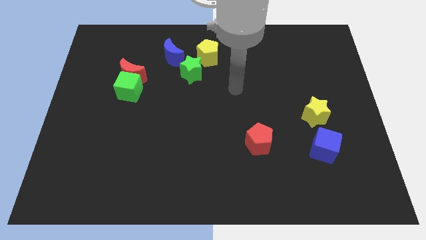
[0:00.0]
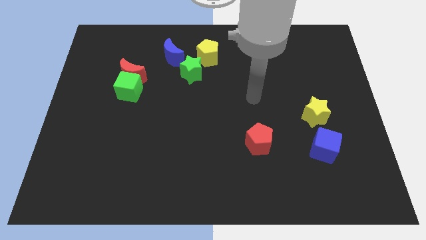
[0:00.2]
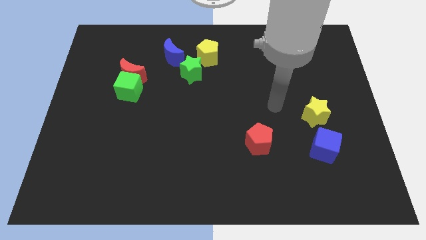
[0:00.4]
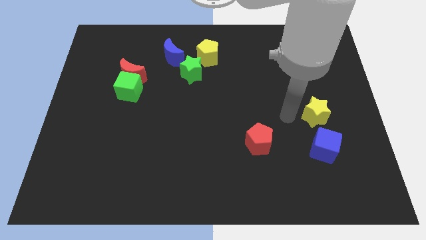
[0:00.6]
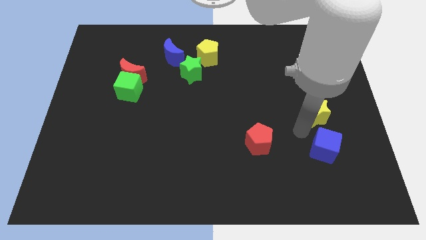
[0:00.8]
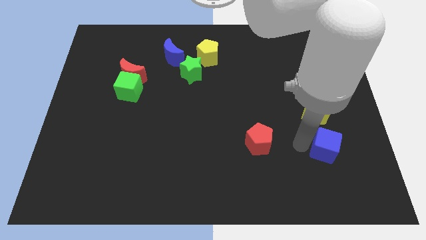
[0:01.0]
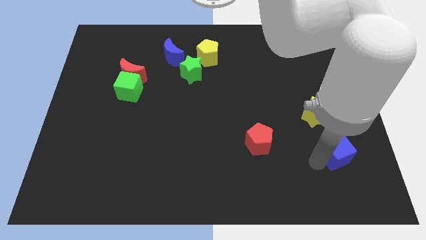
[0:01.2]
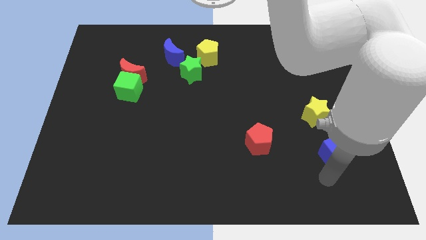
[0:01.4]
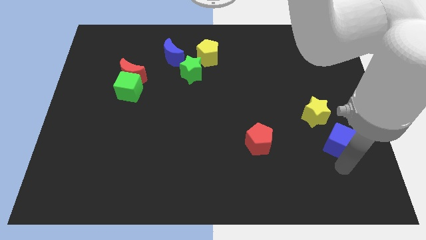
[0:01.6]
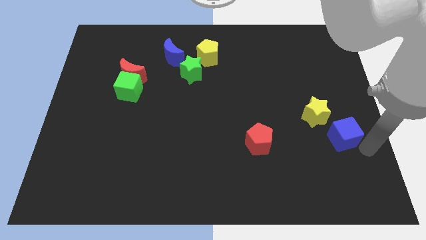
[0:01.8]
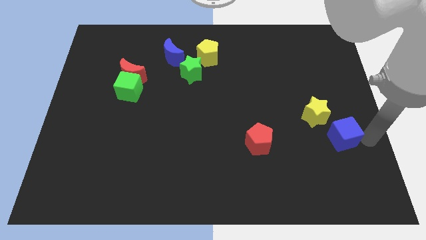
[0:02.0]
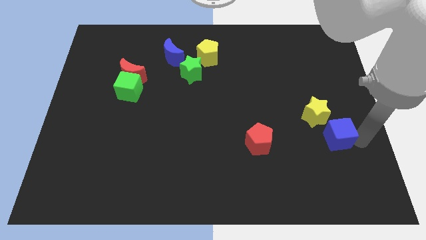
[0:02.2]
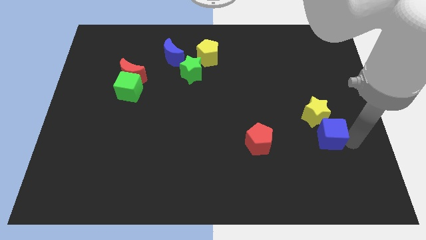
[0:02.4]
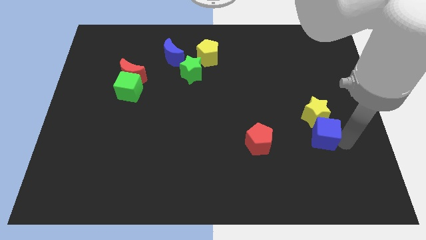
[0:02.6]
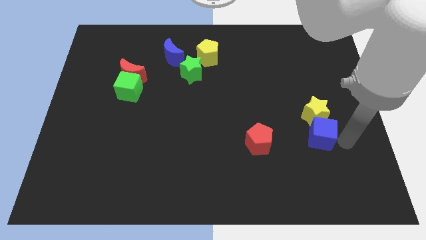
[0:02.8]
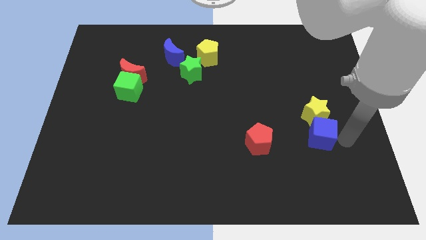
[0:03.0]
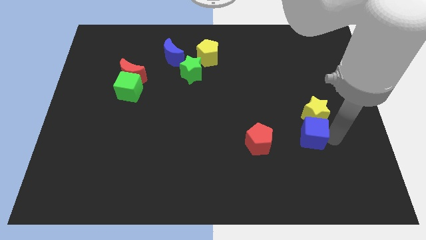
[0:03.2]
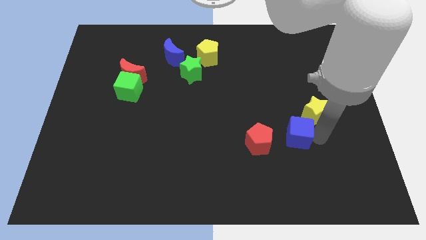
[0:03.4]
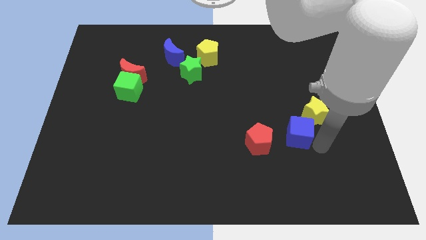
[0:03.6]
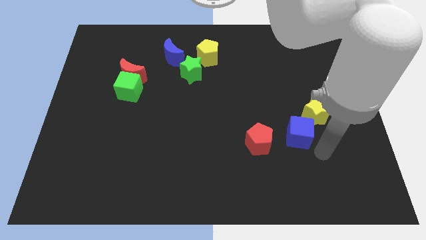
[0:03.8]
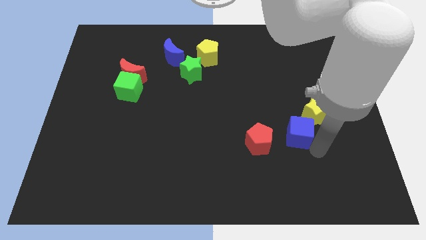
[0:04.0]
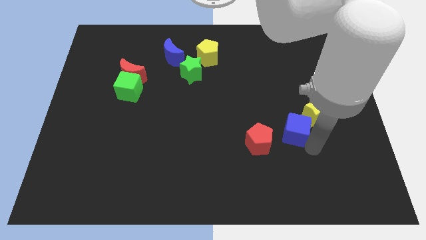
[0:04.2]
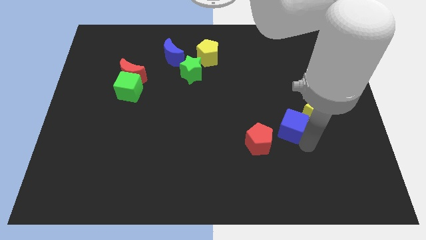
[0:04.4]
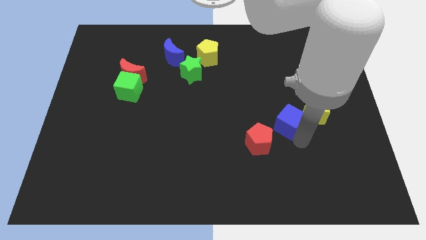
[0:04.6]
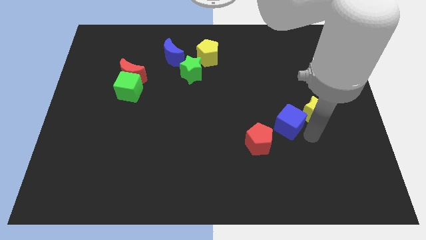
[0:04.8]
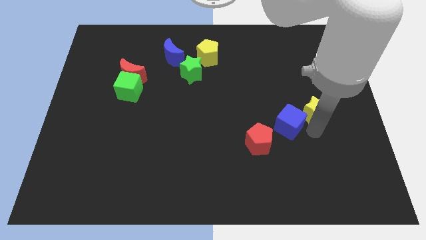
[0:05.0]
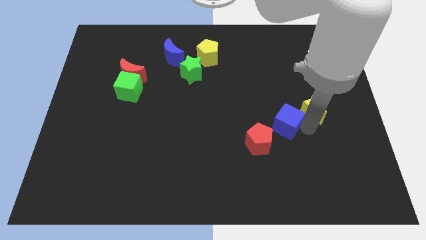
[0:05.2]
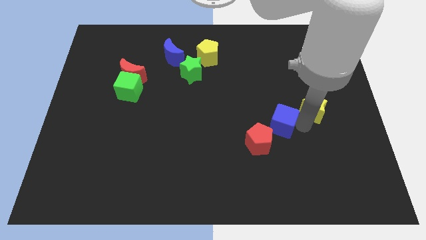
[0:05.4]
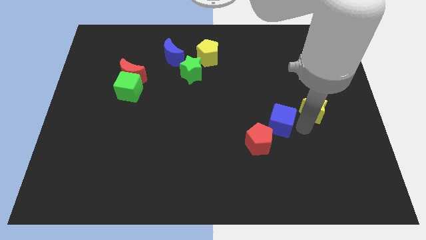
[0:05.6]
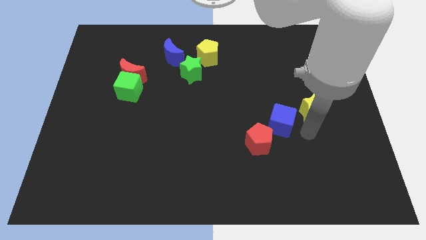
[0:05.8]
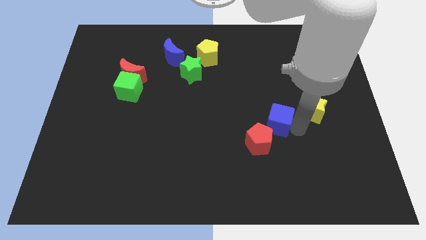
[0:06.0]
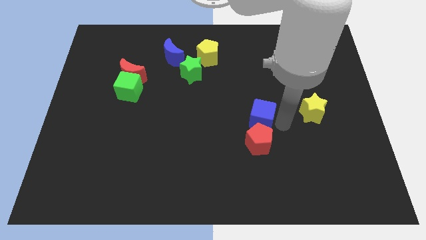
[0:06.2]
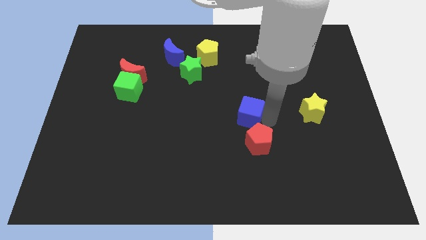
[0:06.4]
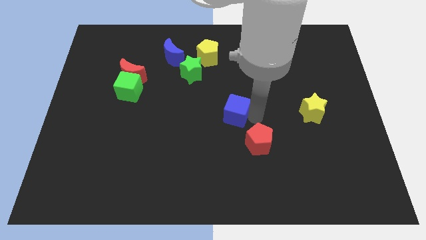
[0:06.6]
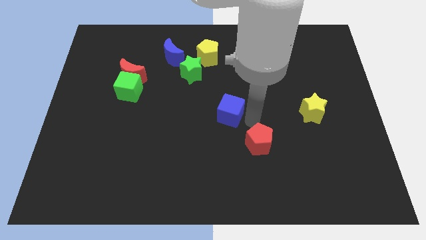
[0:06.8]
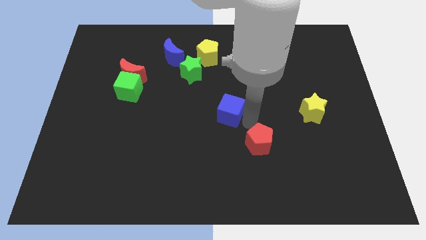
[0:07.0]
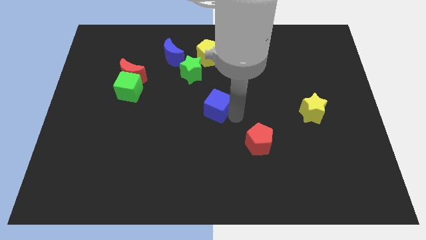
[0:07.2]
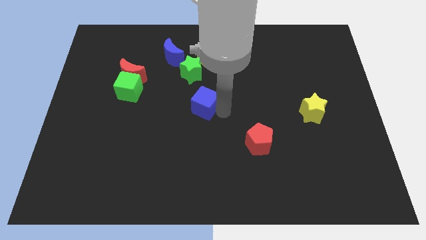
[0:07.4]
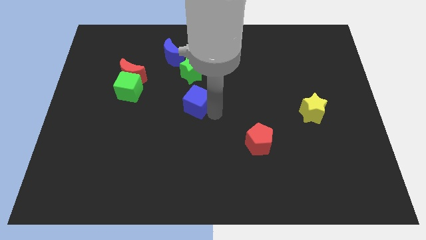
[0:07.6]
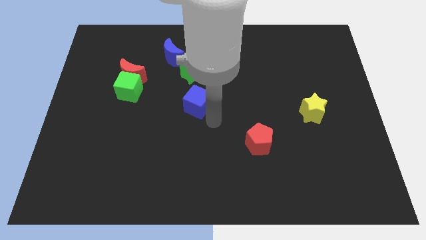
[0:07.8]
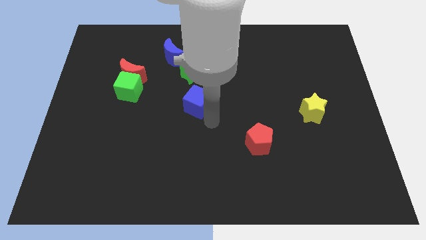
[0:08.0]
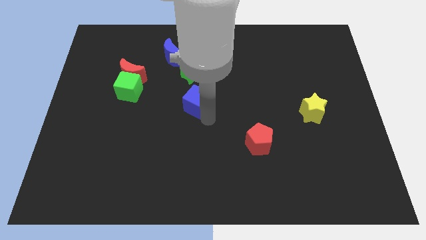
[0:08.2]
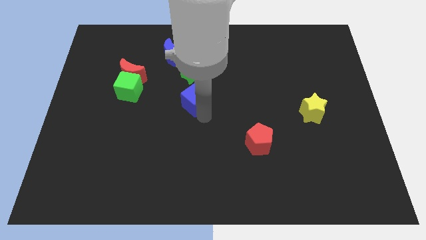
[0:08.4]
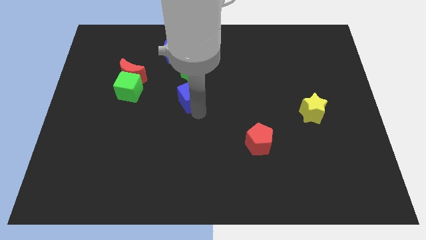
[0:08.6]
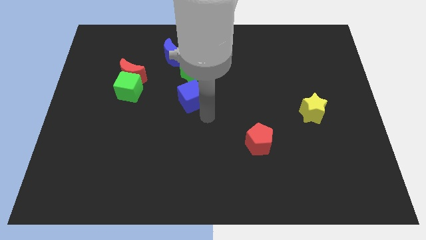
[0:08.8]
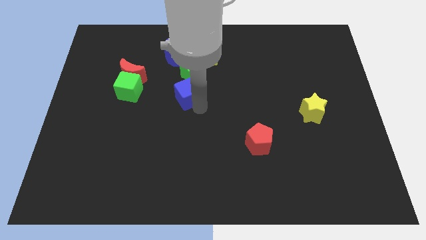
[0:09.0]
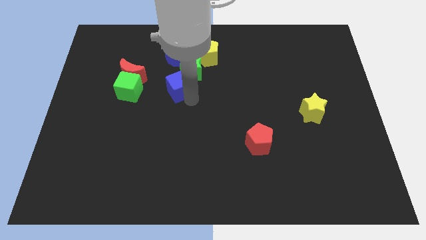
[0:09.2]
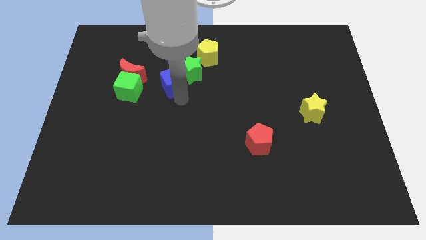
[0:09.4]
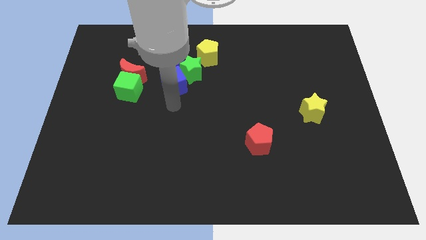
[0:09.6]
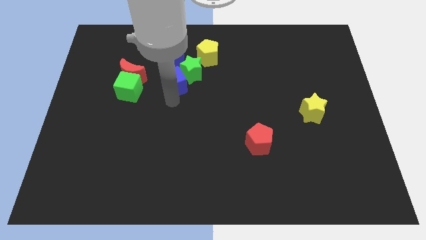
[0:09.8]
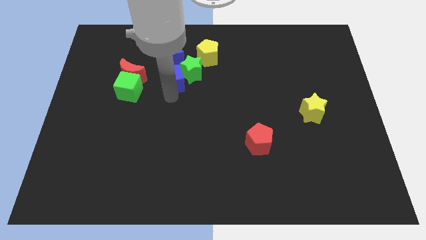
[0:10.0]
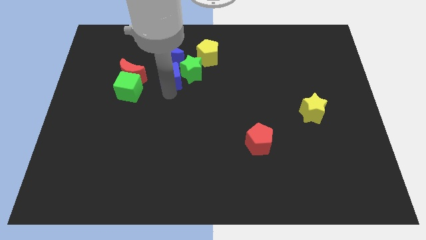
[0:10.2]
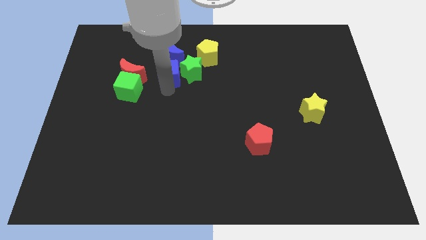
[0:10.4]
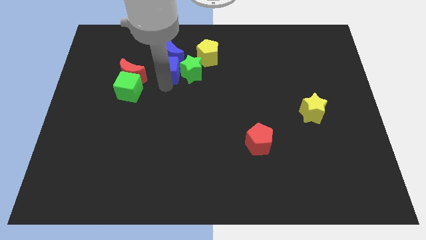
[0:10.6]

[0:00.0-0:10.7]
push the blue cube close to the blue moon

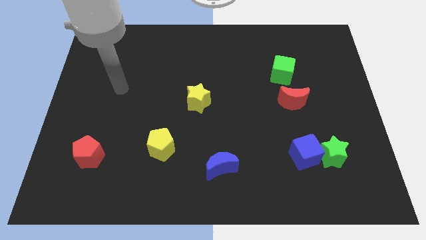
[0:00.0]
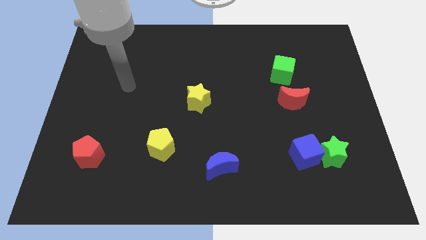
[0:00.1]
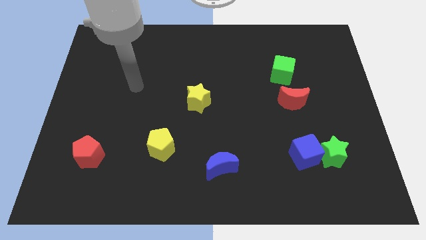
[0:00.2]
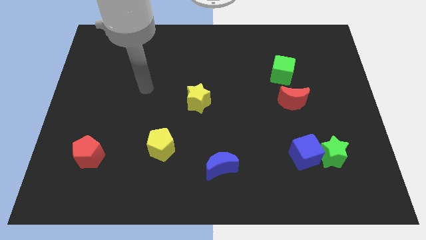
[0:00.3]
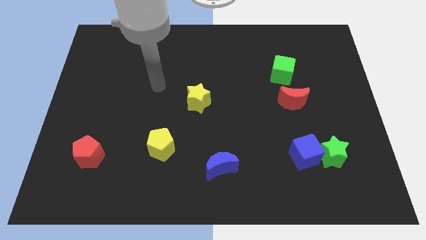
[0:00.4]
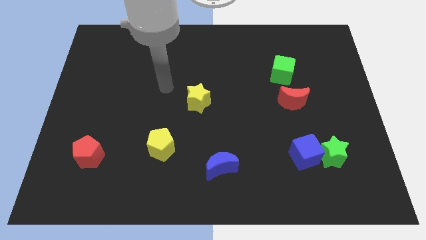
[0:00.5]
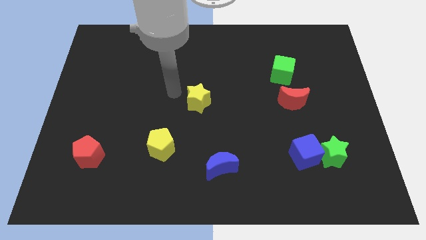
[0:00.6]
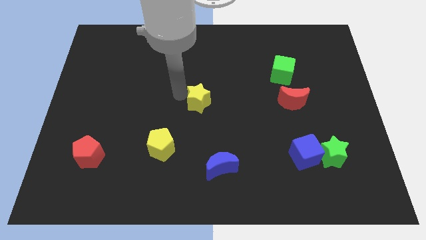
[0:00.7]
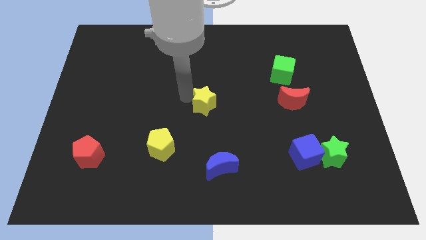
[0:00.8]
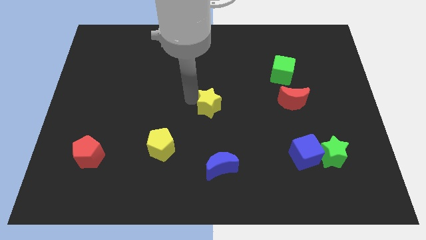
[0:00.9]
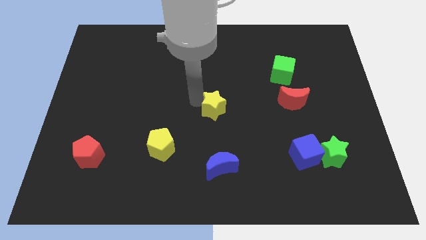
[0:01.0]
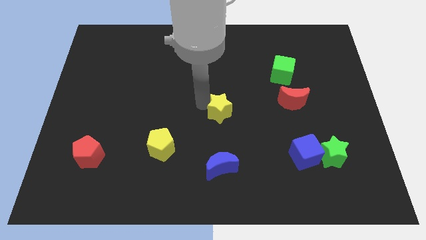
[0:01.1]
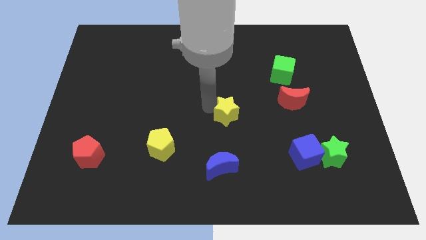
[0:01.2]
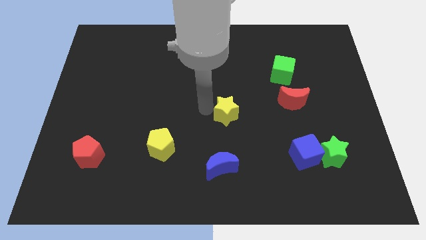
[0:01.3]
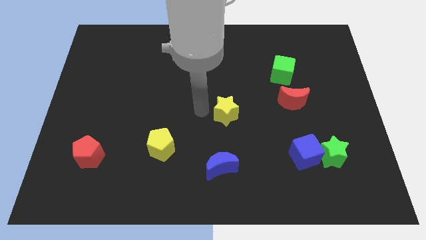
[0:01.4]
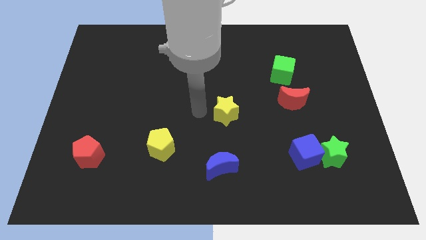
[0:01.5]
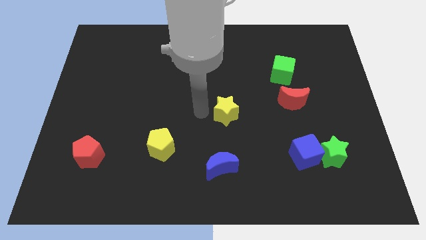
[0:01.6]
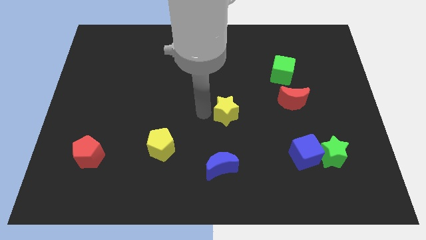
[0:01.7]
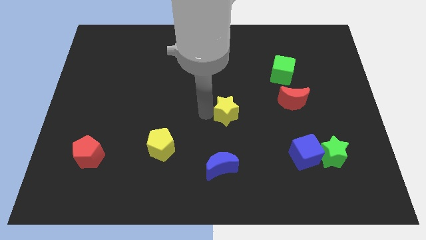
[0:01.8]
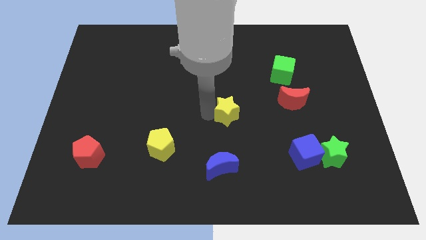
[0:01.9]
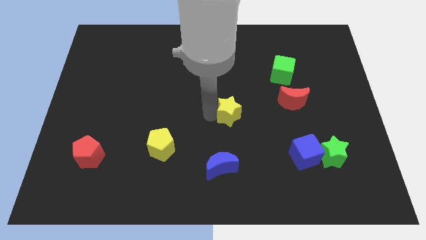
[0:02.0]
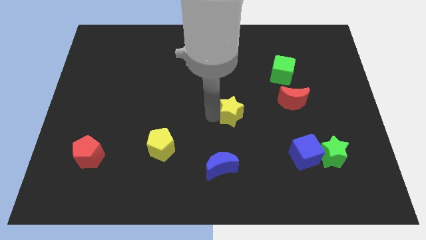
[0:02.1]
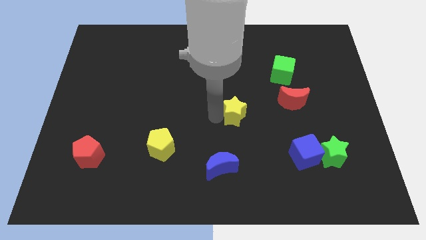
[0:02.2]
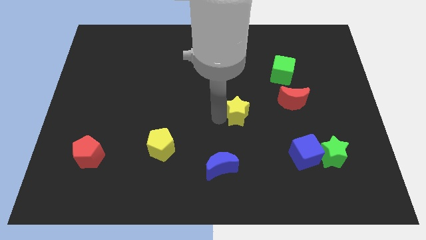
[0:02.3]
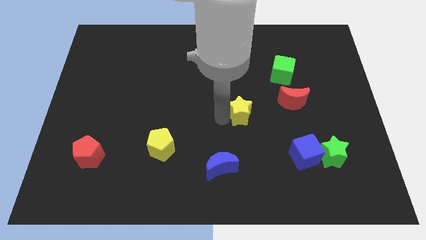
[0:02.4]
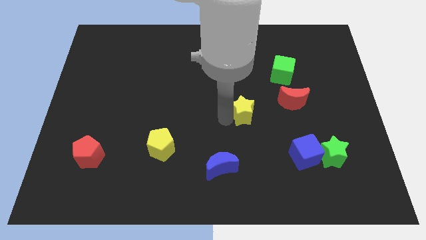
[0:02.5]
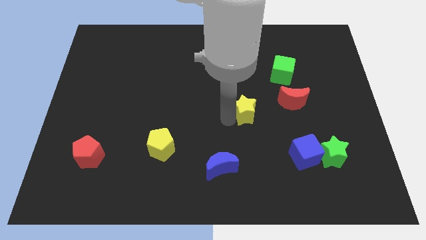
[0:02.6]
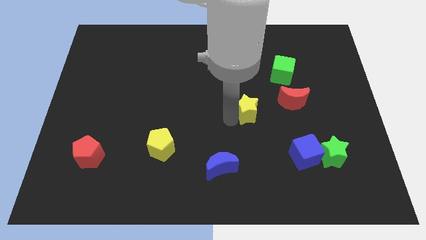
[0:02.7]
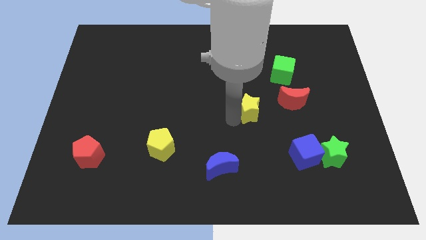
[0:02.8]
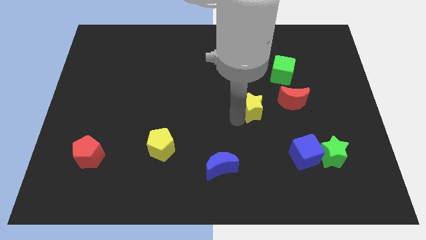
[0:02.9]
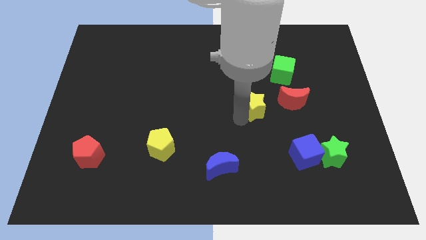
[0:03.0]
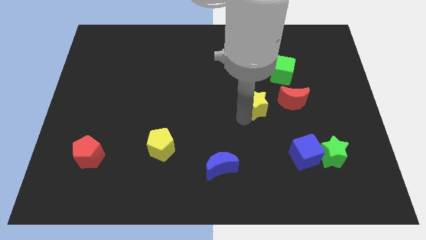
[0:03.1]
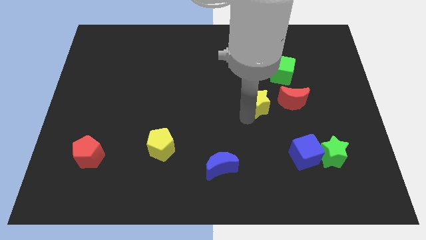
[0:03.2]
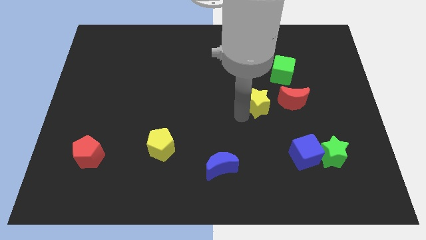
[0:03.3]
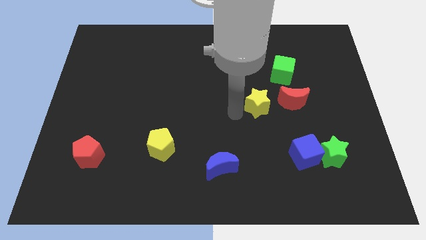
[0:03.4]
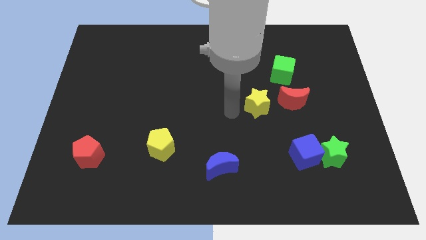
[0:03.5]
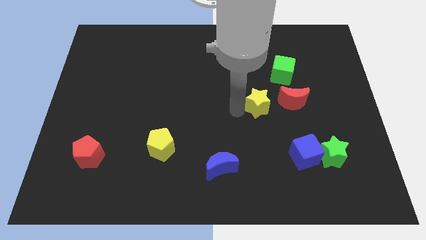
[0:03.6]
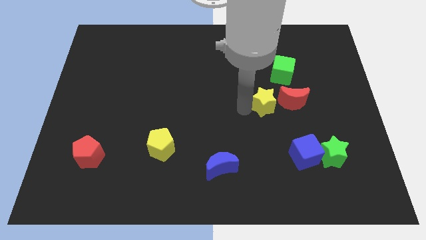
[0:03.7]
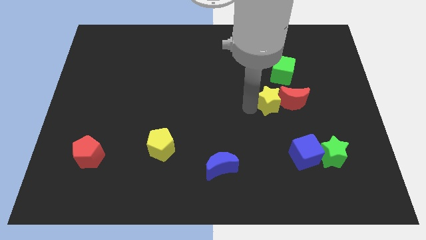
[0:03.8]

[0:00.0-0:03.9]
move the yellow star to the red moon
